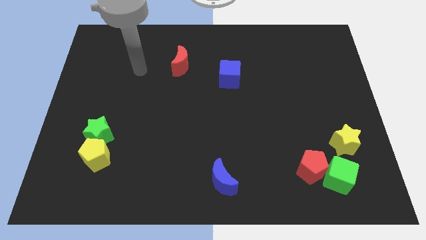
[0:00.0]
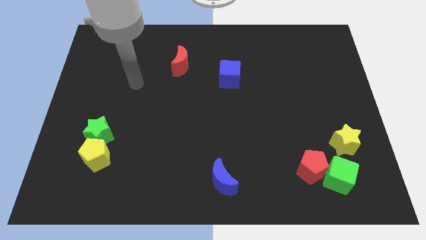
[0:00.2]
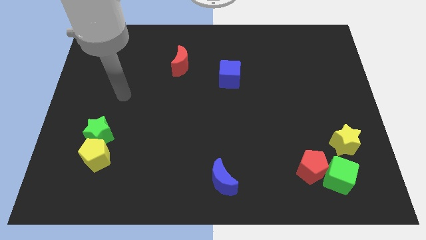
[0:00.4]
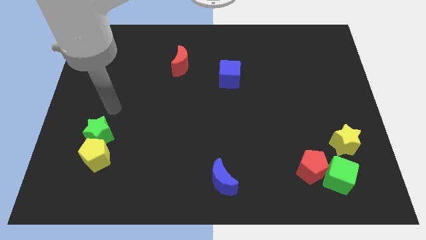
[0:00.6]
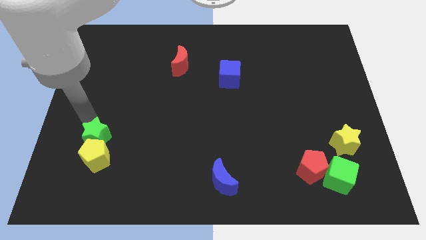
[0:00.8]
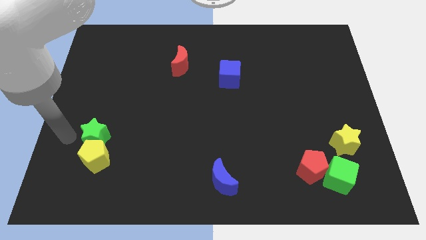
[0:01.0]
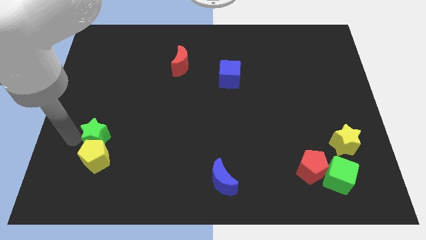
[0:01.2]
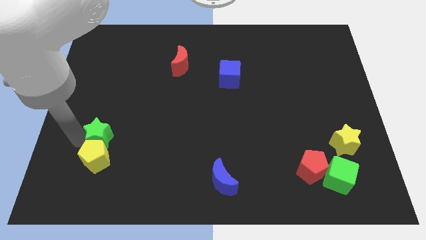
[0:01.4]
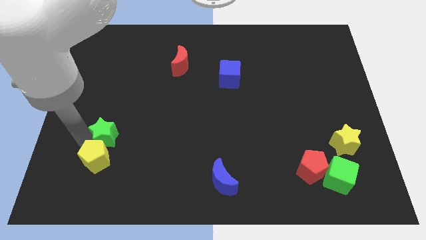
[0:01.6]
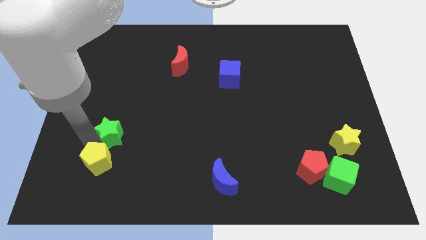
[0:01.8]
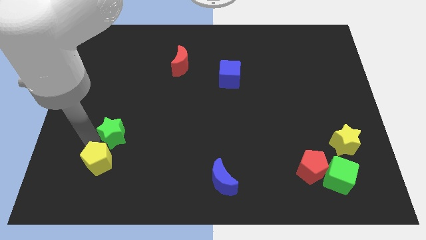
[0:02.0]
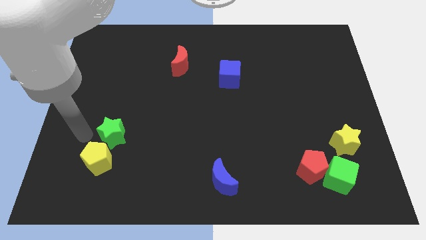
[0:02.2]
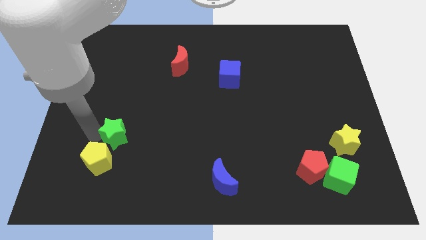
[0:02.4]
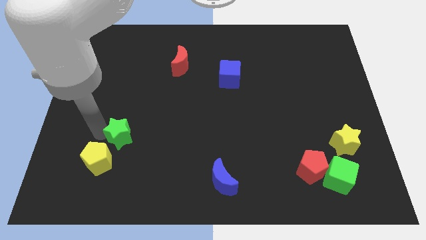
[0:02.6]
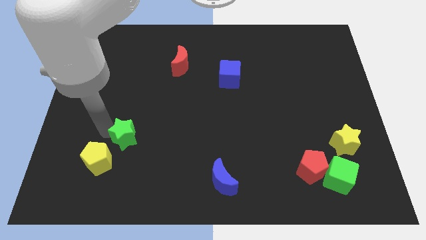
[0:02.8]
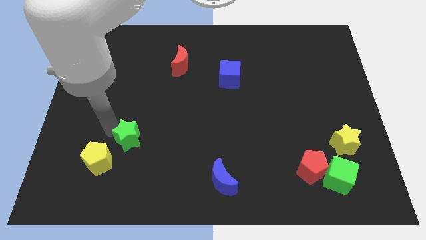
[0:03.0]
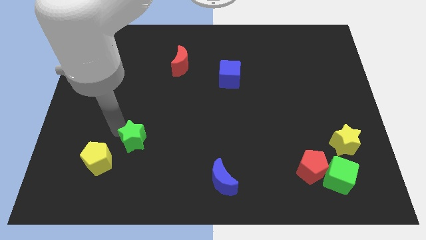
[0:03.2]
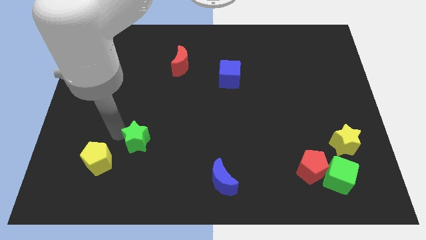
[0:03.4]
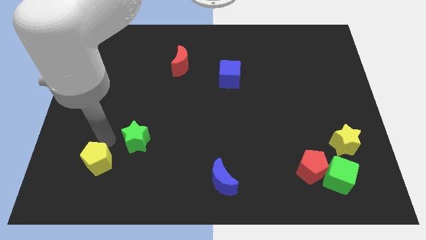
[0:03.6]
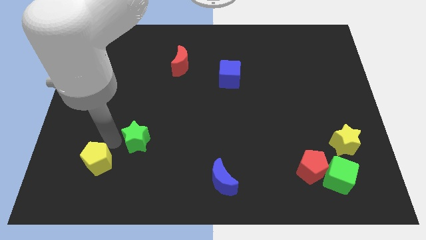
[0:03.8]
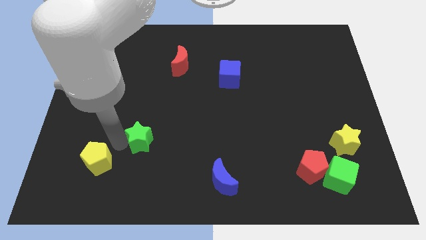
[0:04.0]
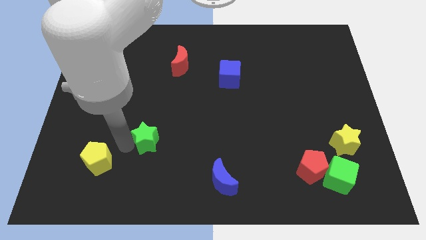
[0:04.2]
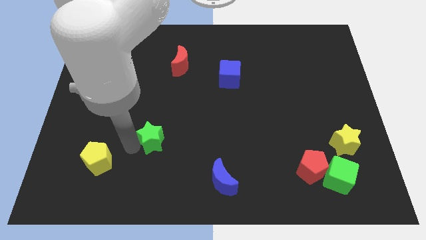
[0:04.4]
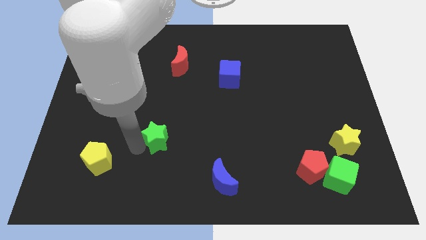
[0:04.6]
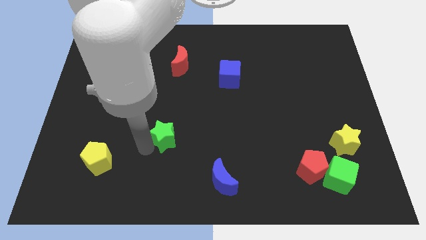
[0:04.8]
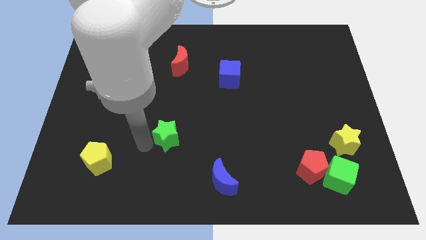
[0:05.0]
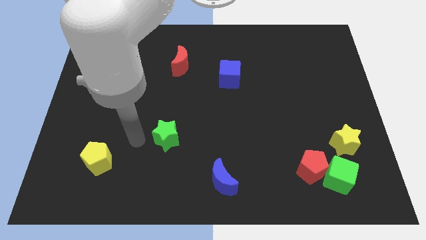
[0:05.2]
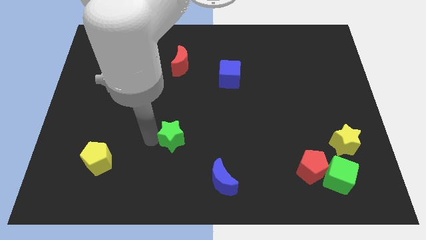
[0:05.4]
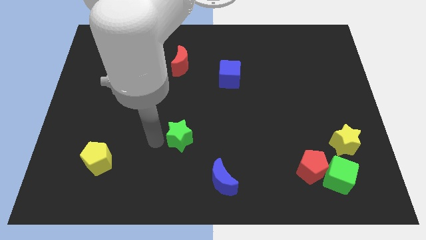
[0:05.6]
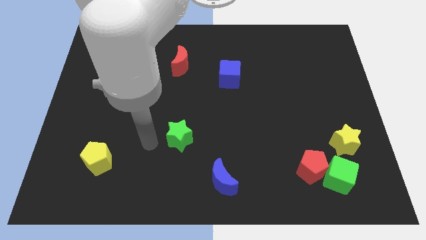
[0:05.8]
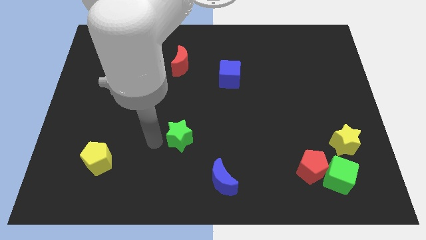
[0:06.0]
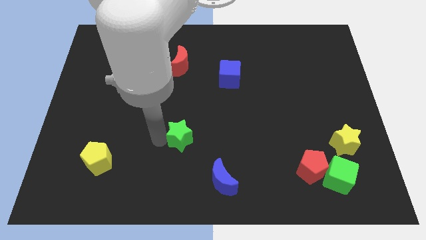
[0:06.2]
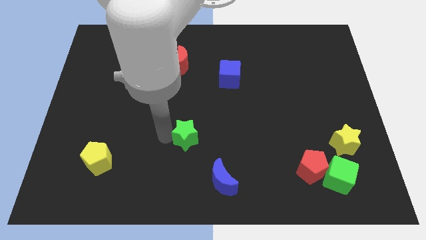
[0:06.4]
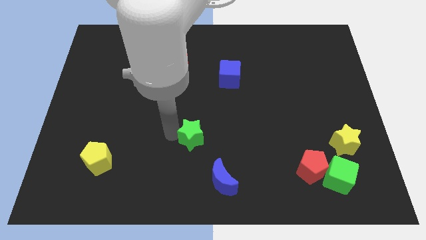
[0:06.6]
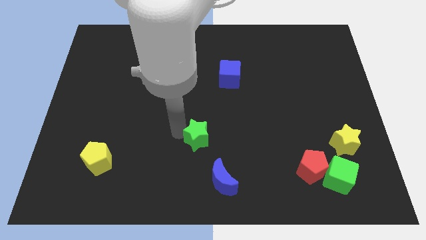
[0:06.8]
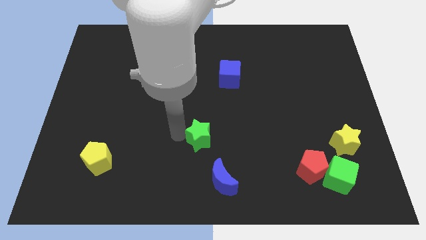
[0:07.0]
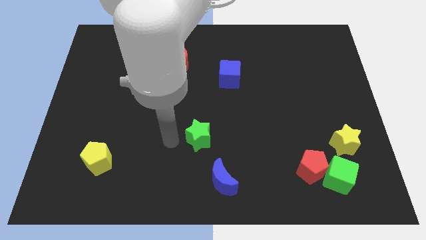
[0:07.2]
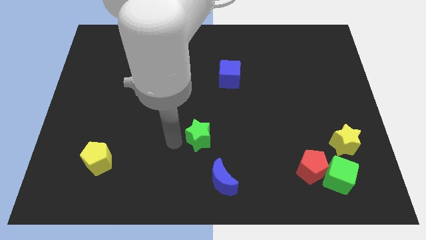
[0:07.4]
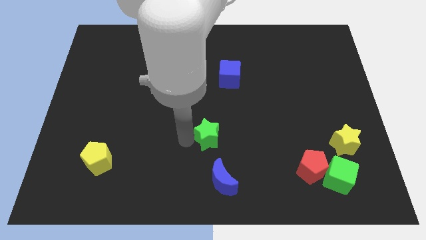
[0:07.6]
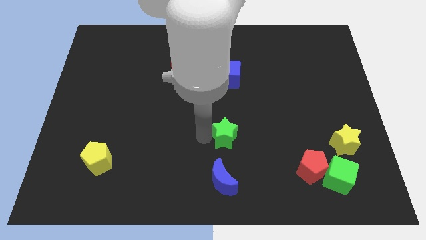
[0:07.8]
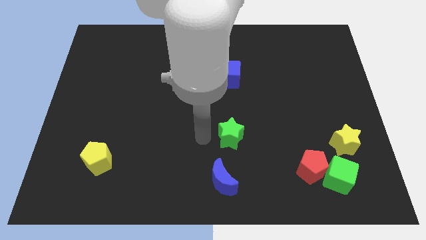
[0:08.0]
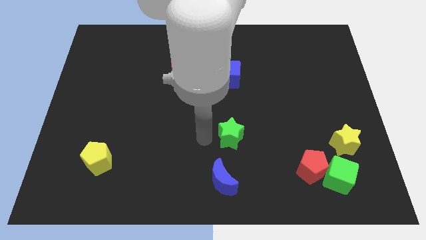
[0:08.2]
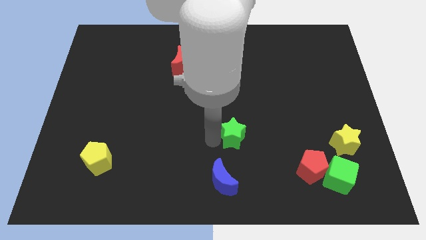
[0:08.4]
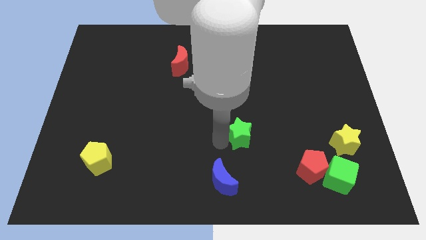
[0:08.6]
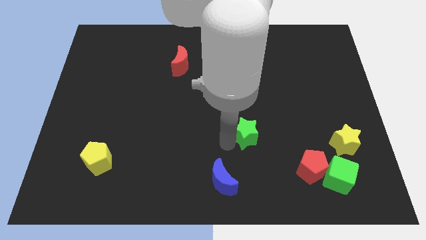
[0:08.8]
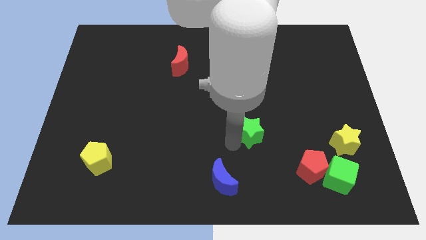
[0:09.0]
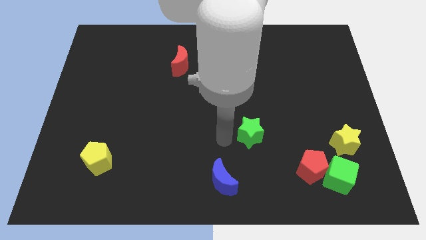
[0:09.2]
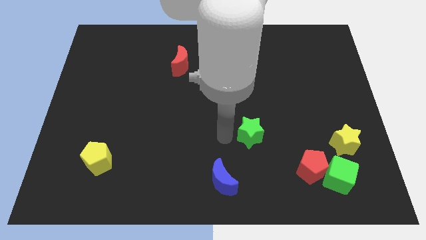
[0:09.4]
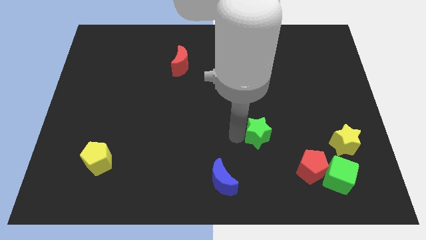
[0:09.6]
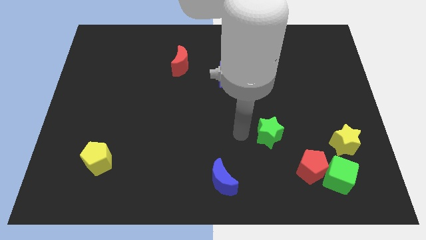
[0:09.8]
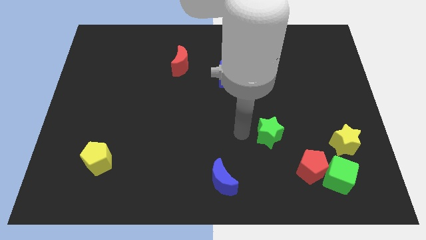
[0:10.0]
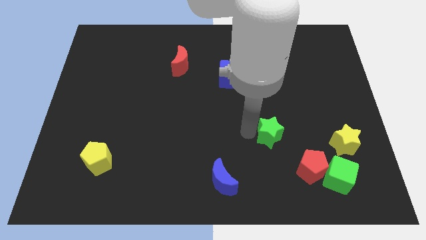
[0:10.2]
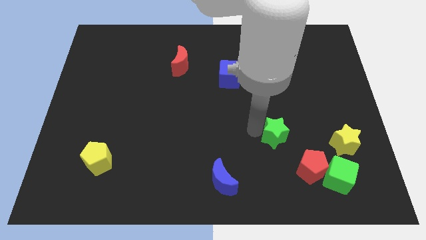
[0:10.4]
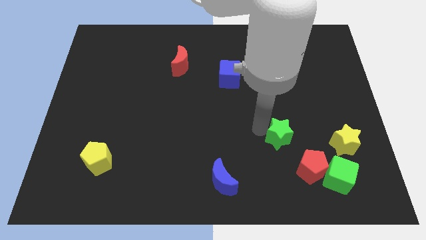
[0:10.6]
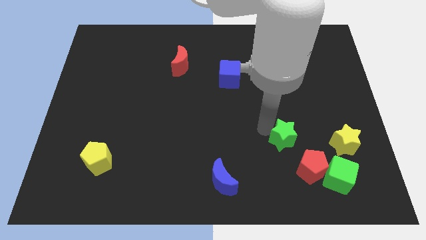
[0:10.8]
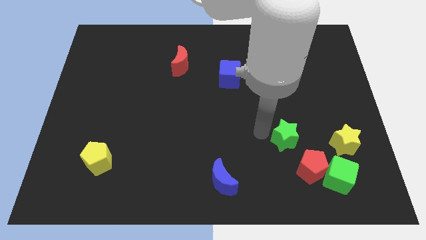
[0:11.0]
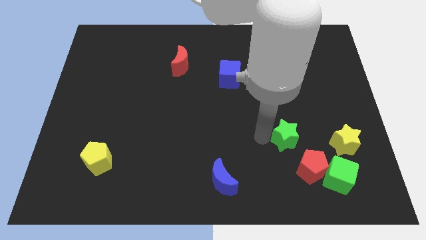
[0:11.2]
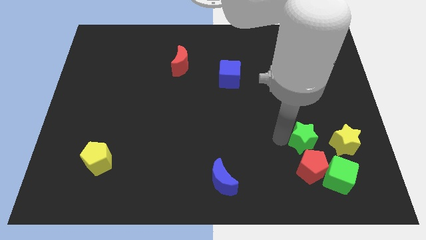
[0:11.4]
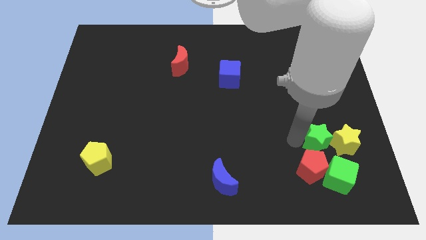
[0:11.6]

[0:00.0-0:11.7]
slide the green star close to the yellow star

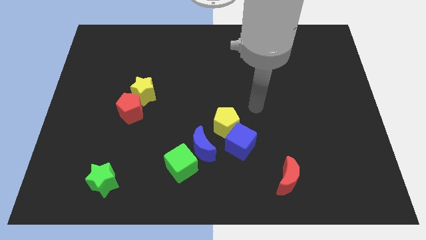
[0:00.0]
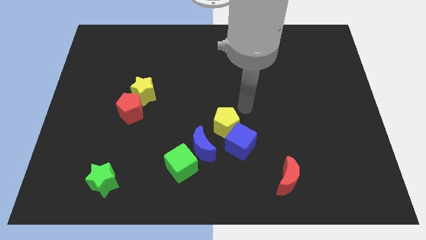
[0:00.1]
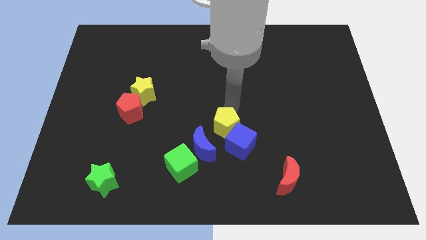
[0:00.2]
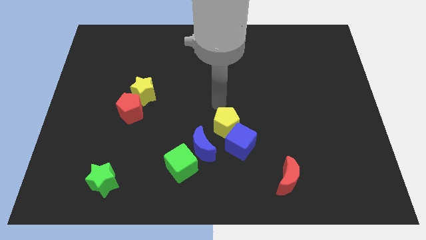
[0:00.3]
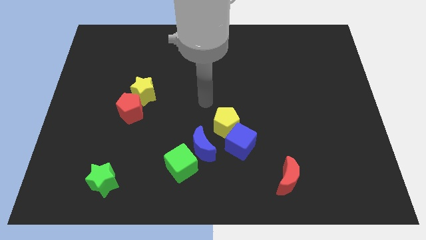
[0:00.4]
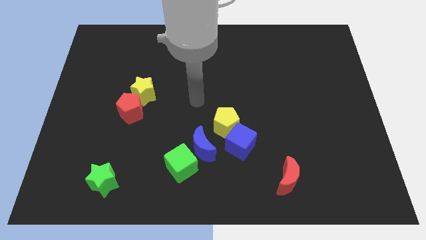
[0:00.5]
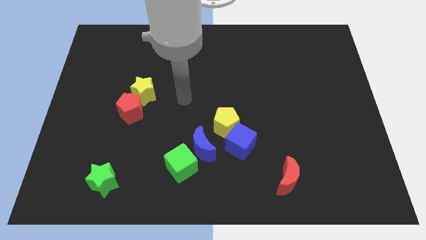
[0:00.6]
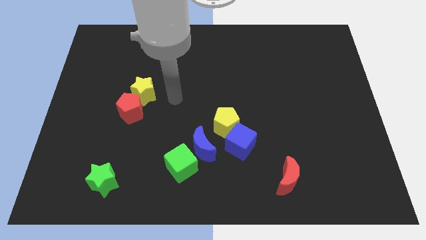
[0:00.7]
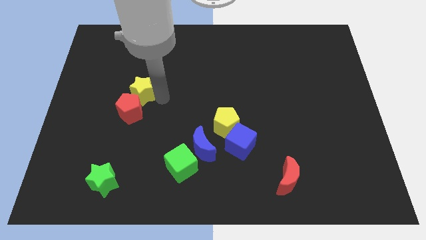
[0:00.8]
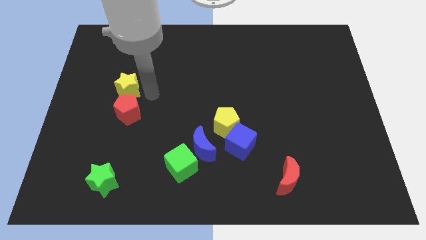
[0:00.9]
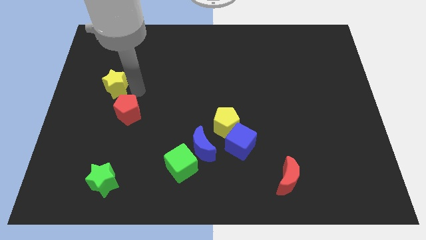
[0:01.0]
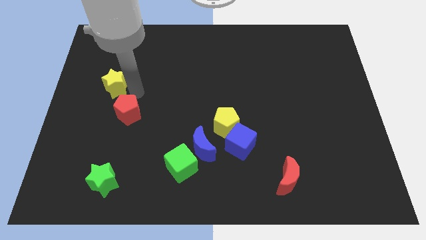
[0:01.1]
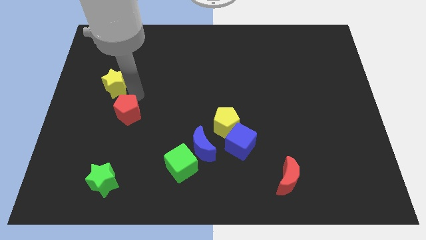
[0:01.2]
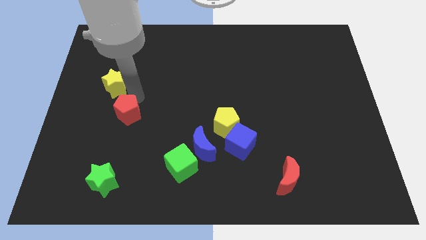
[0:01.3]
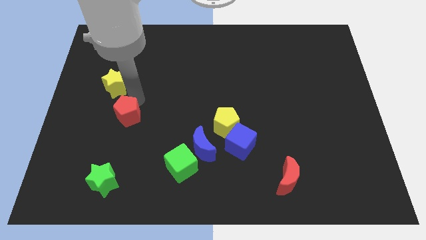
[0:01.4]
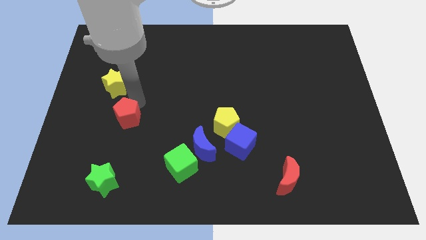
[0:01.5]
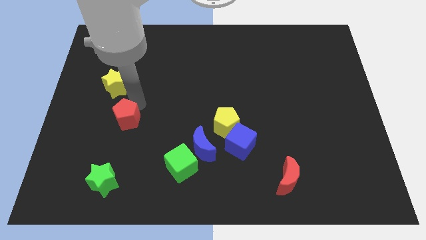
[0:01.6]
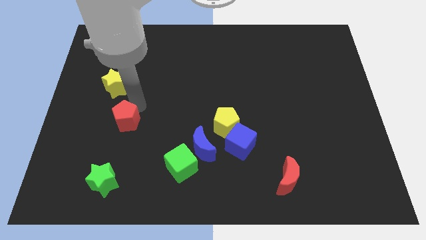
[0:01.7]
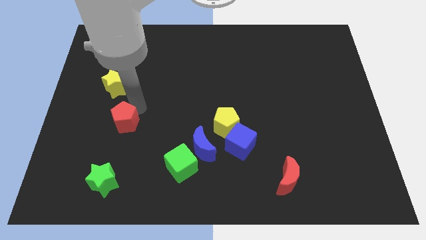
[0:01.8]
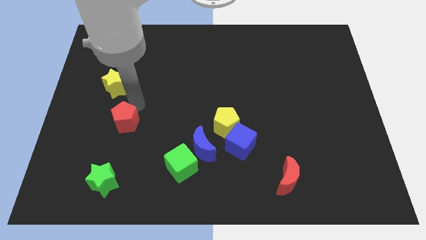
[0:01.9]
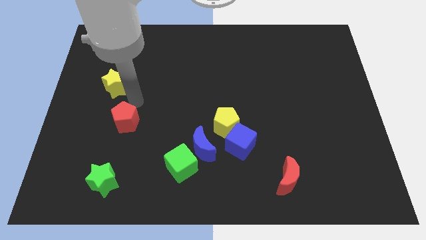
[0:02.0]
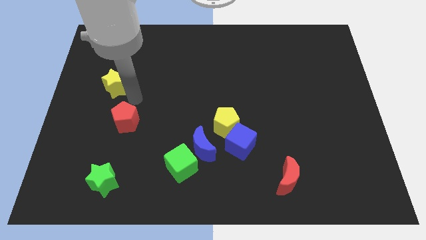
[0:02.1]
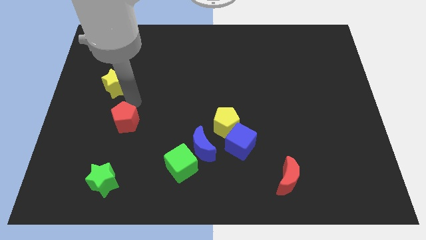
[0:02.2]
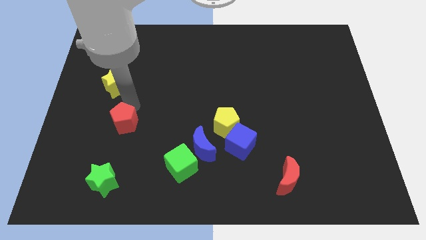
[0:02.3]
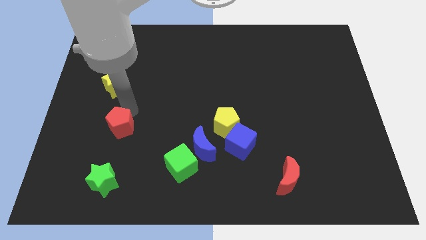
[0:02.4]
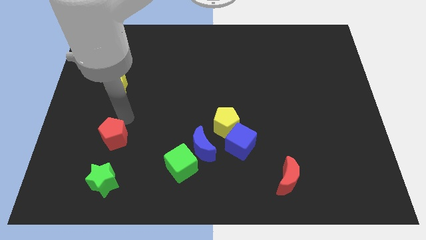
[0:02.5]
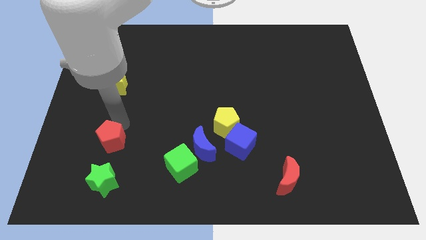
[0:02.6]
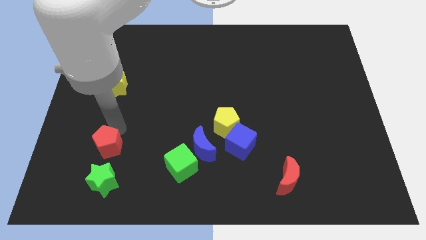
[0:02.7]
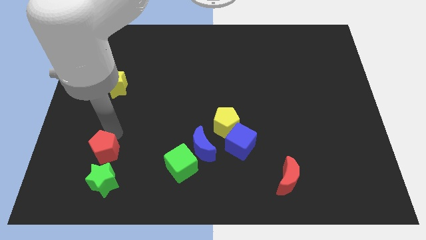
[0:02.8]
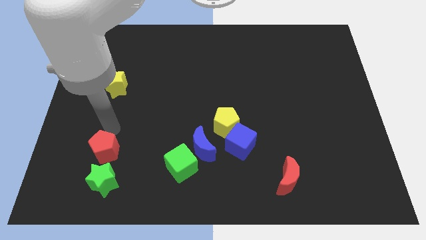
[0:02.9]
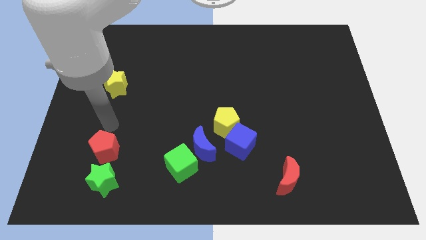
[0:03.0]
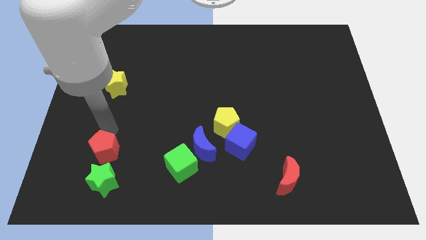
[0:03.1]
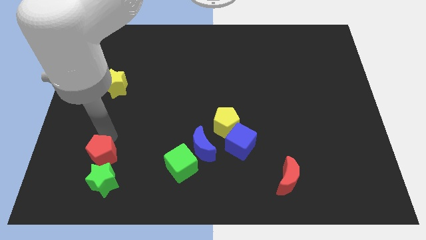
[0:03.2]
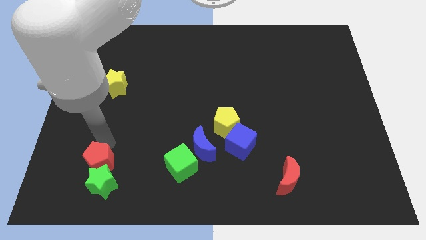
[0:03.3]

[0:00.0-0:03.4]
move the red pentagon next to the green star
